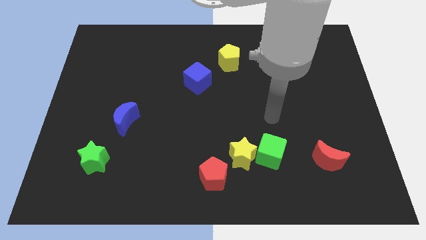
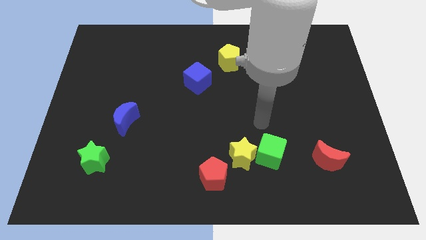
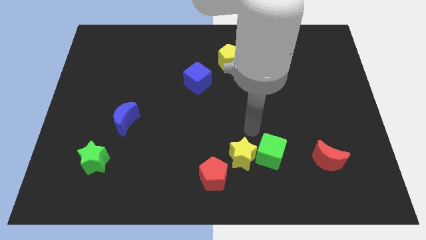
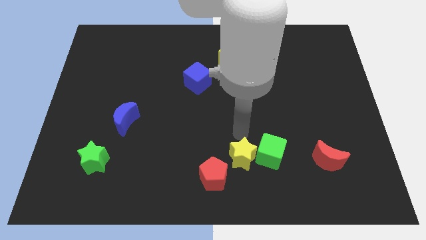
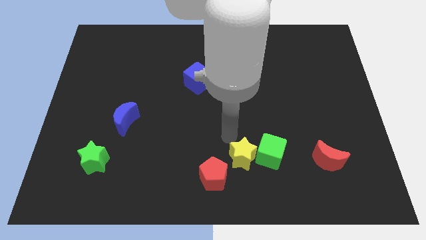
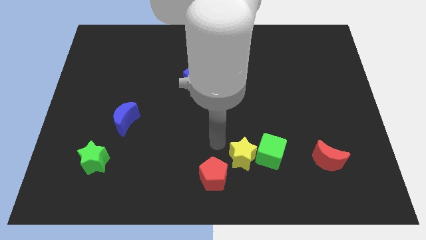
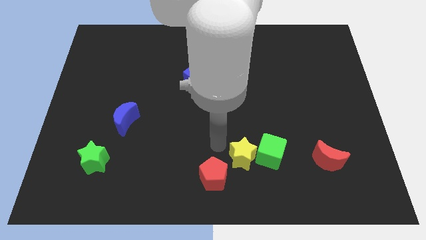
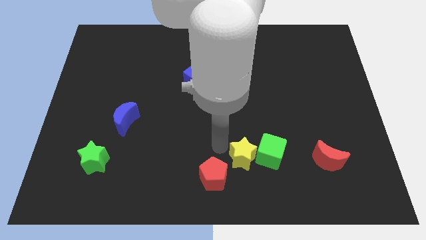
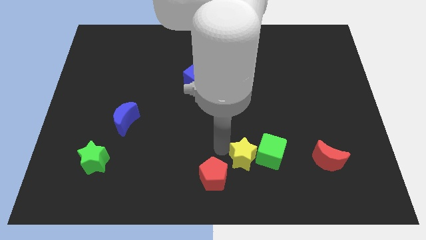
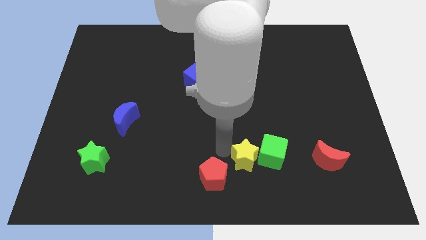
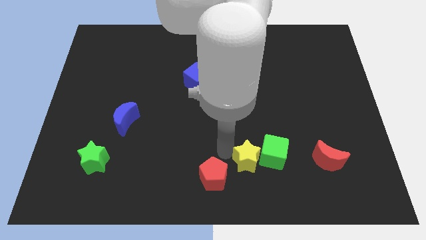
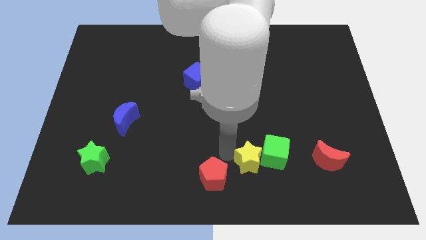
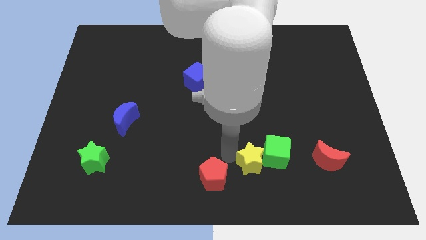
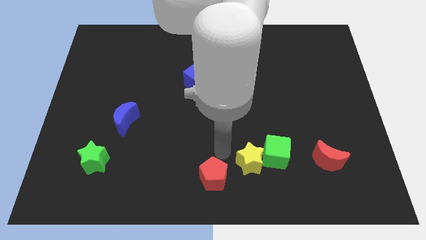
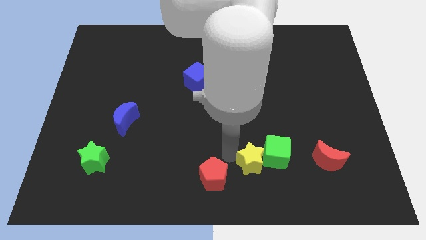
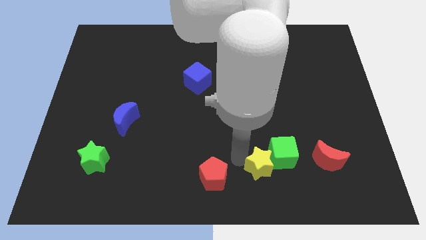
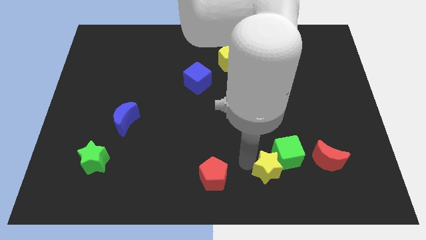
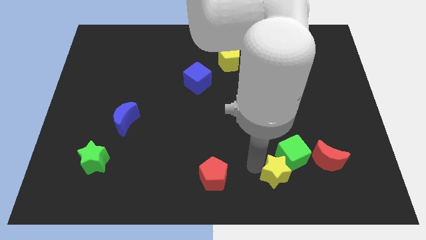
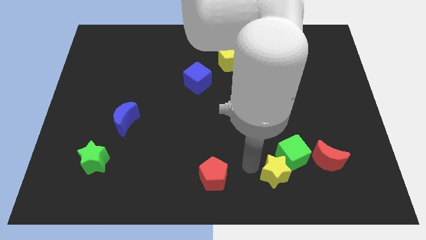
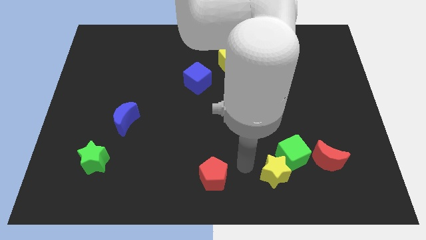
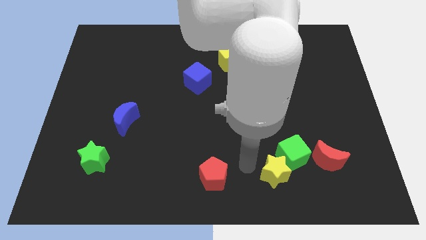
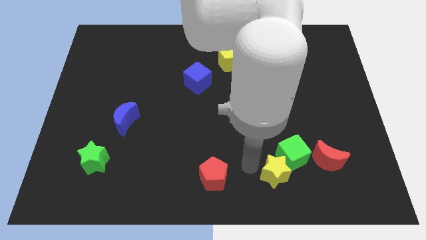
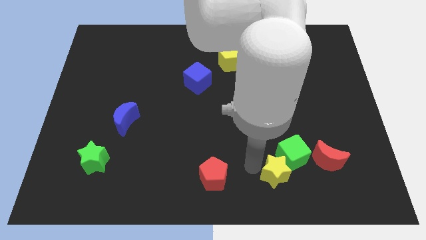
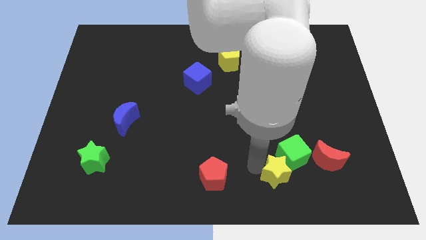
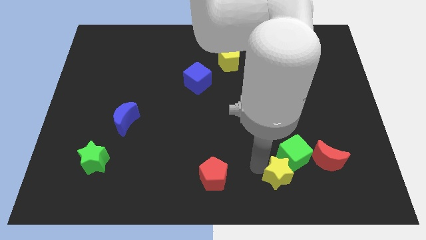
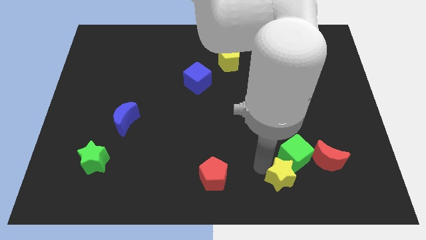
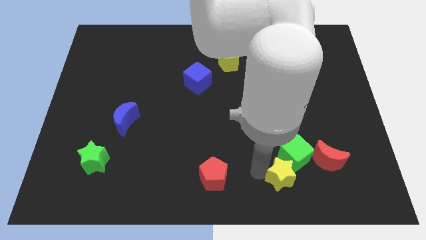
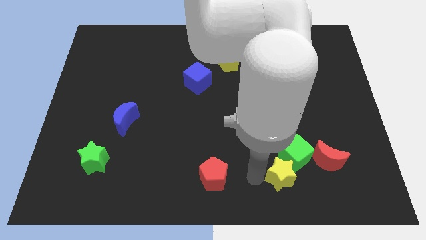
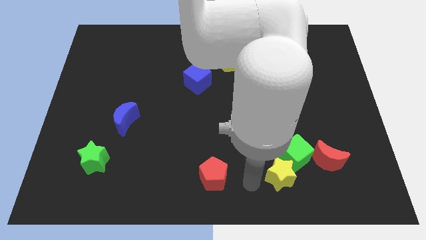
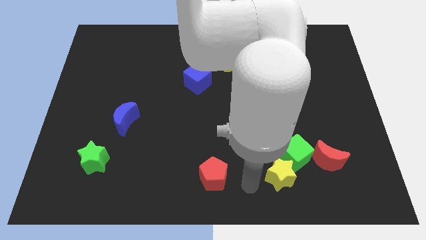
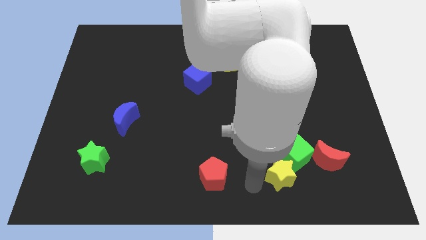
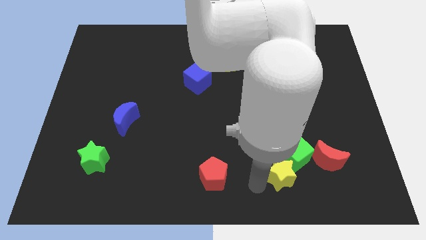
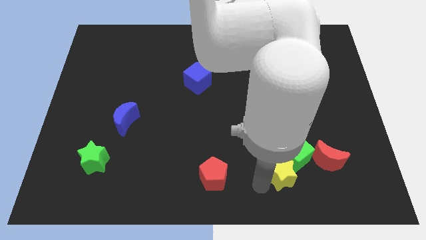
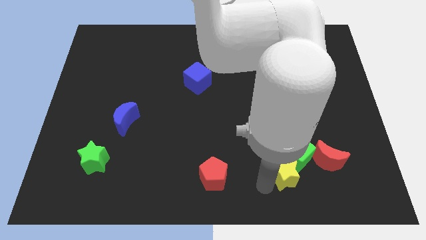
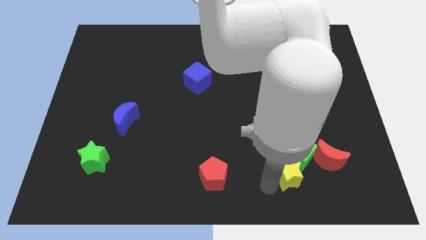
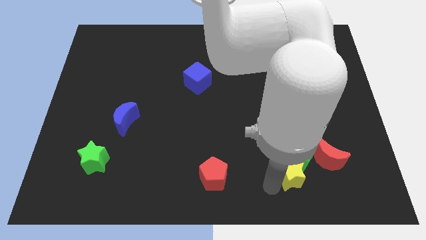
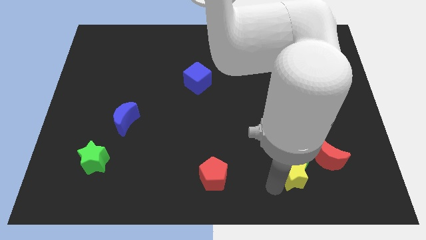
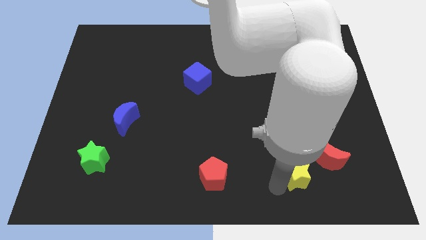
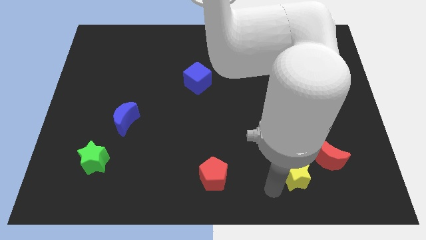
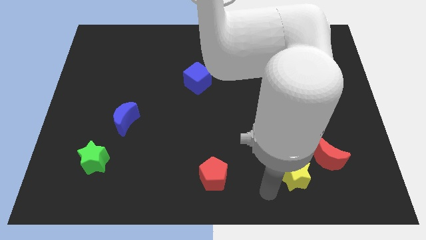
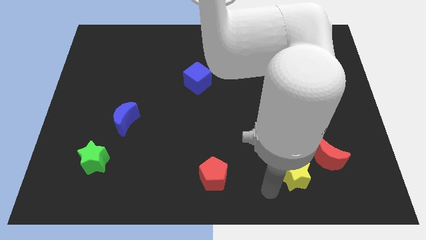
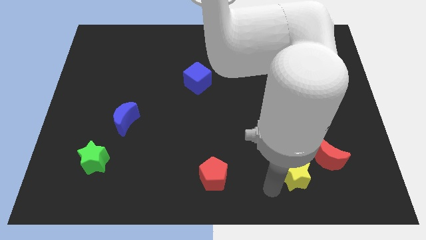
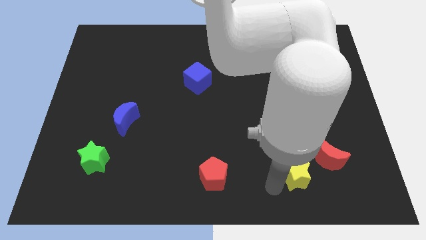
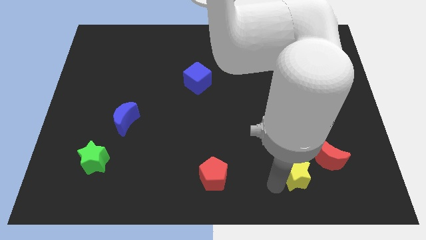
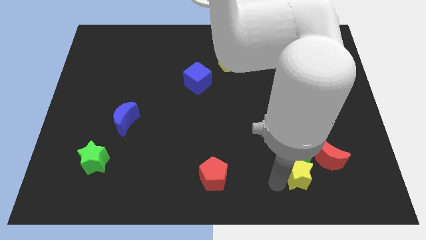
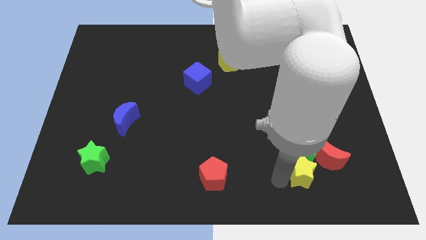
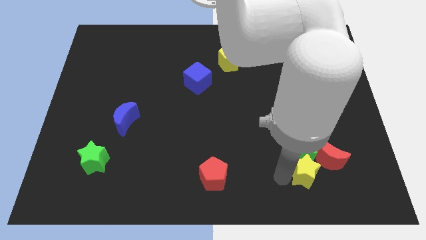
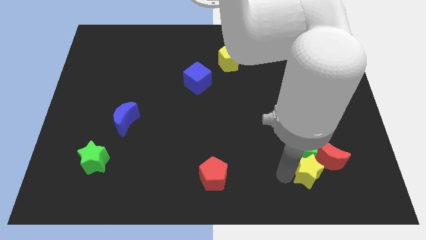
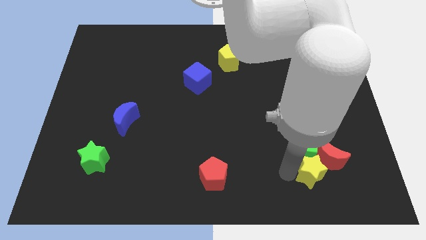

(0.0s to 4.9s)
slide the yellow star next to the red moon

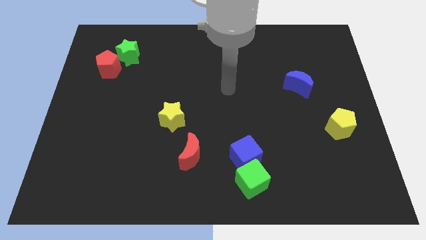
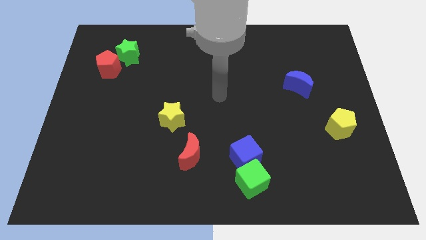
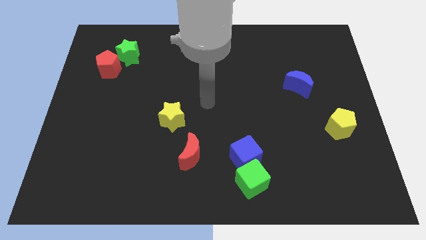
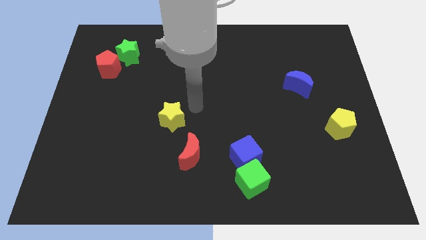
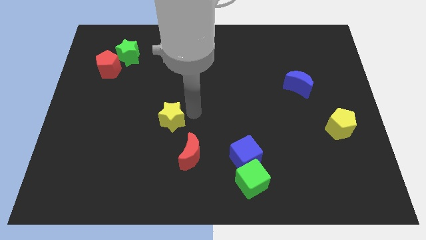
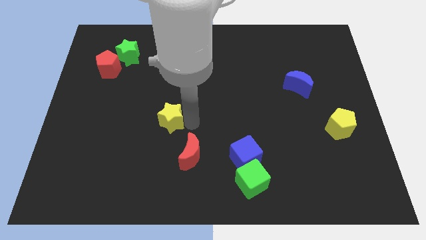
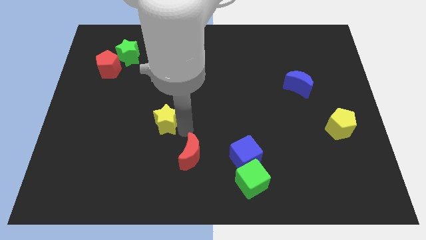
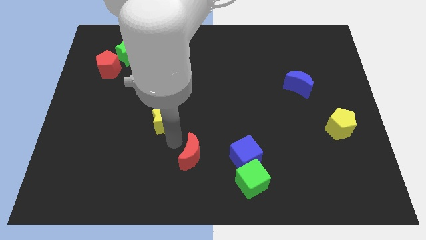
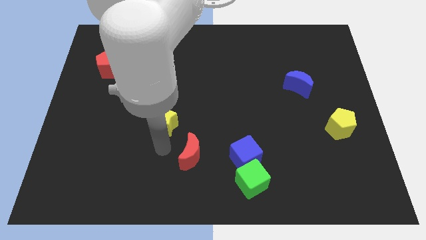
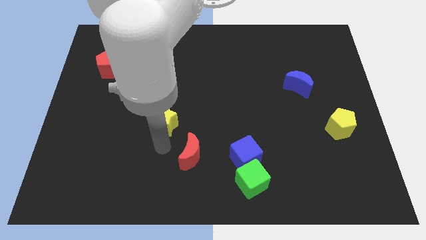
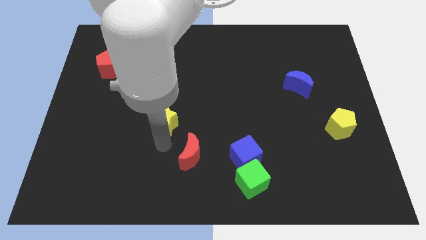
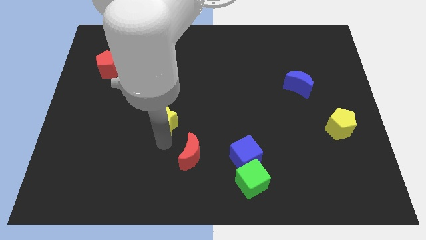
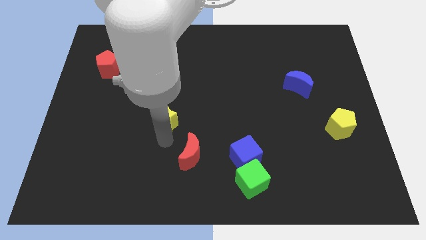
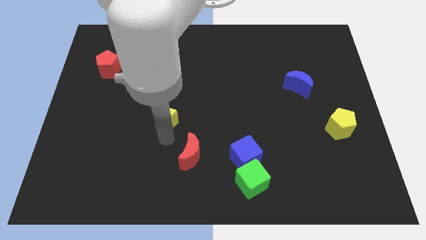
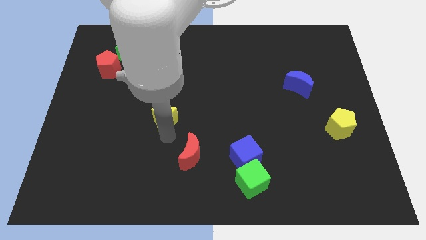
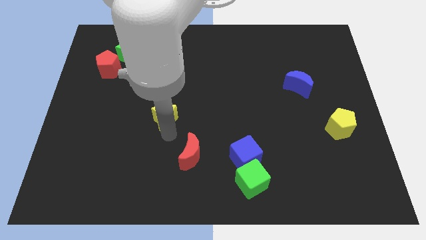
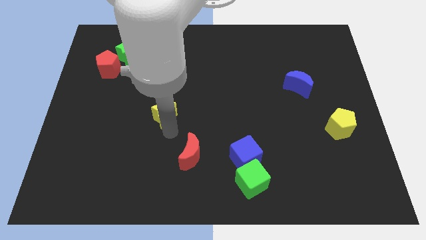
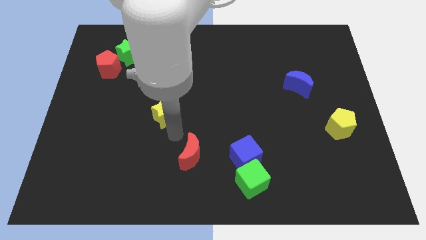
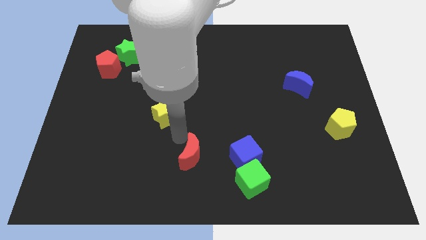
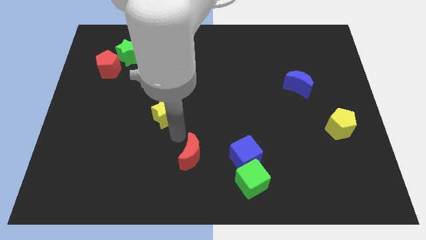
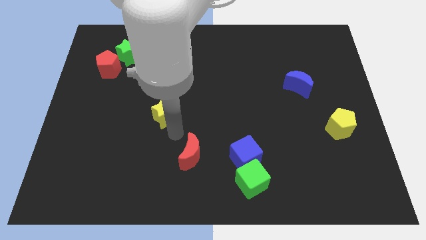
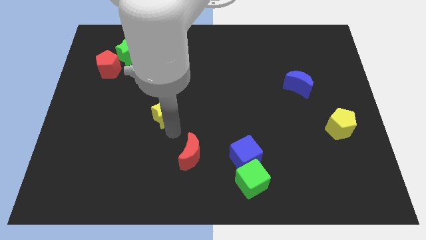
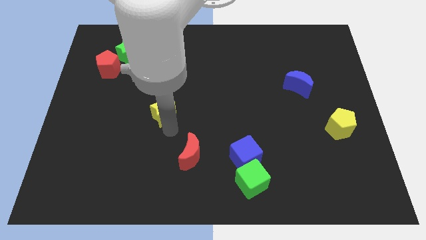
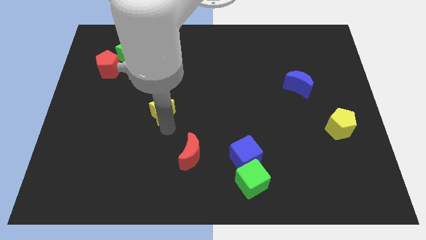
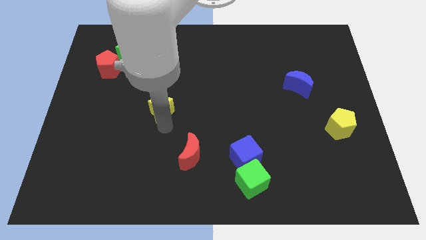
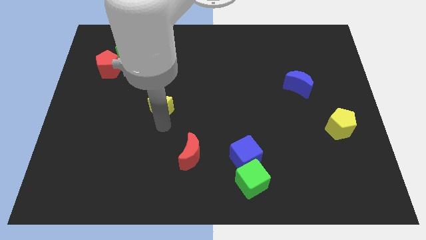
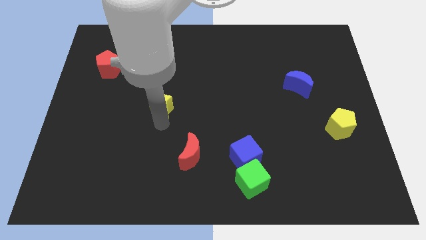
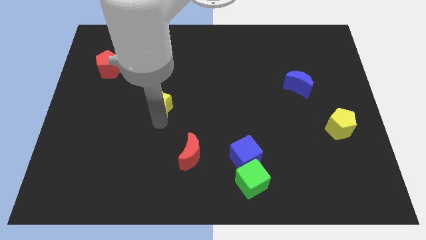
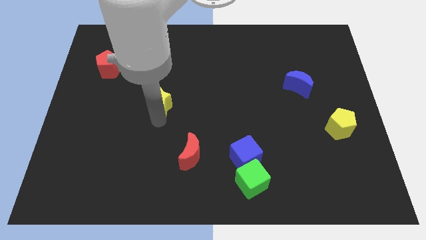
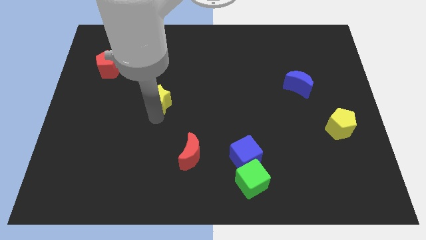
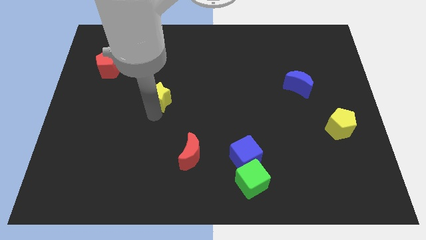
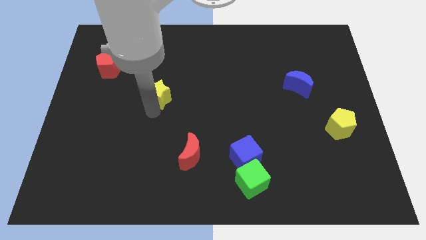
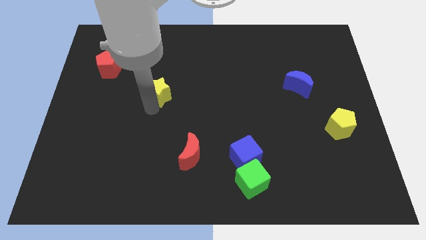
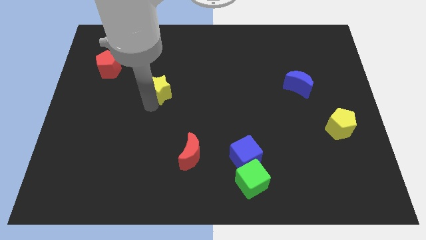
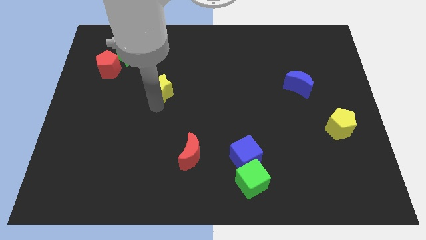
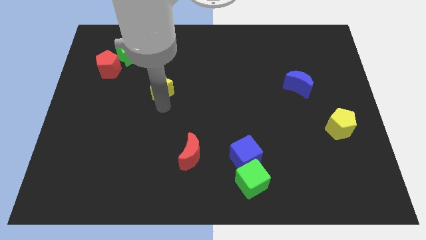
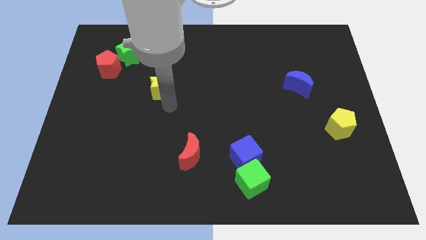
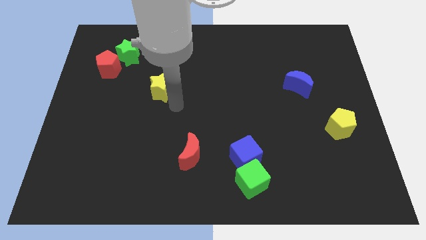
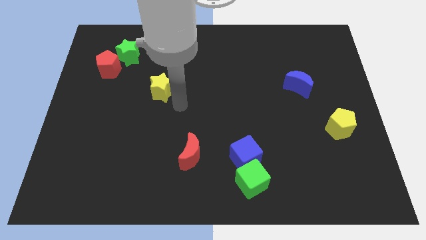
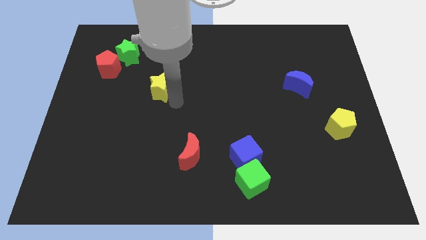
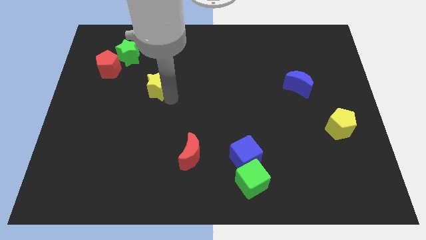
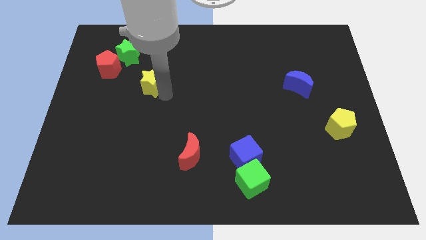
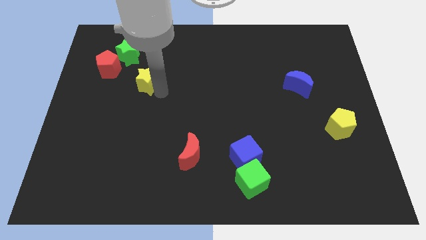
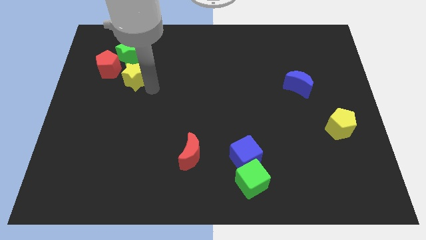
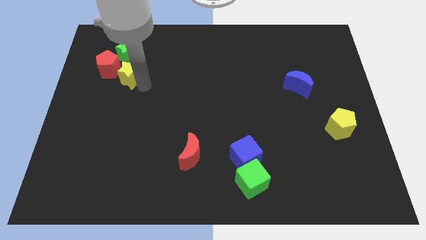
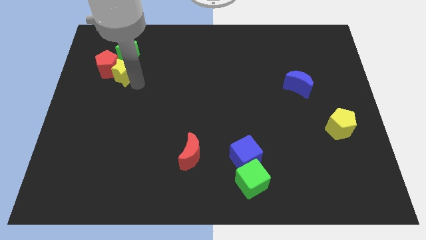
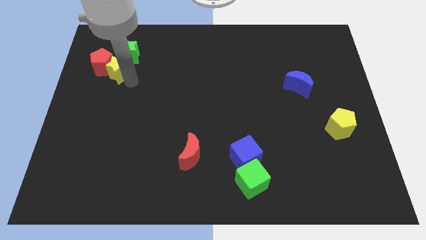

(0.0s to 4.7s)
put the yellow star next to the green star
